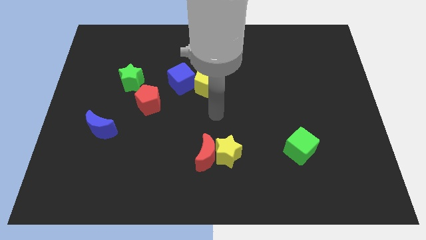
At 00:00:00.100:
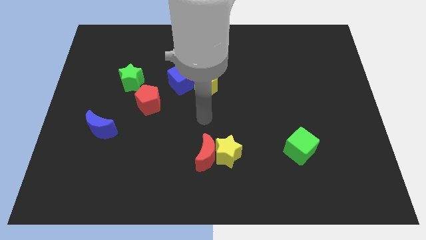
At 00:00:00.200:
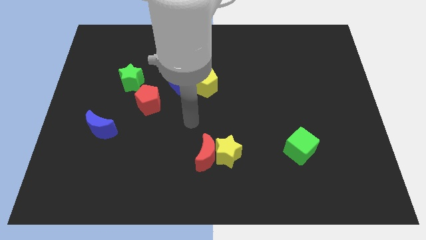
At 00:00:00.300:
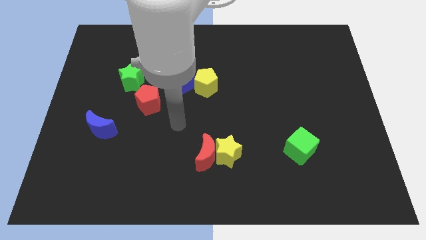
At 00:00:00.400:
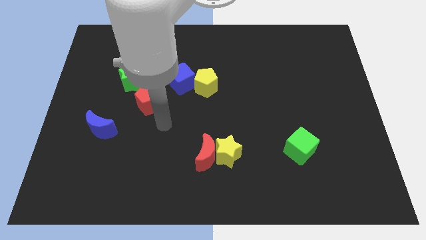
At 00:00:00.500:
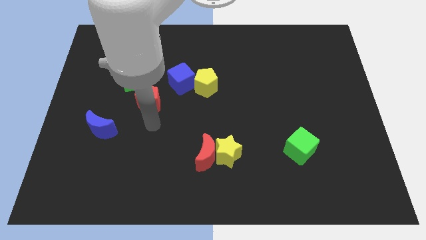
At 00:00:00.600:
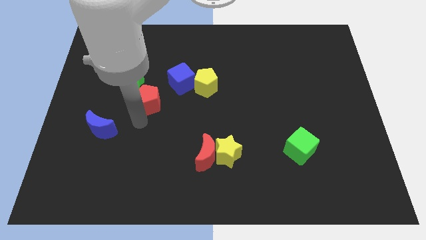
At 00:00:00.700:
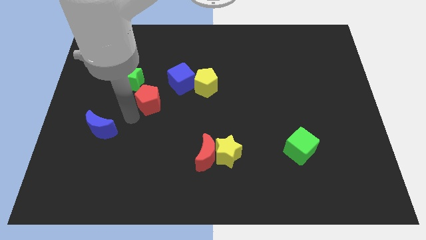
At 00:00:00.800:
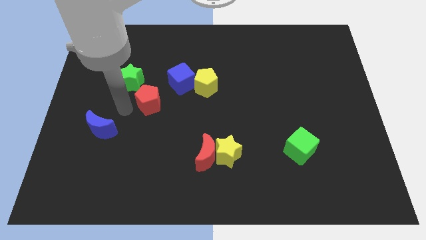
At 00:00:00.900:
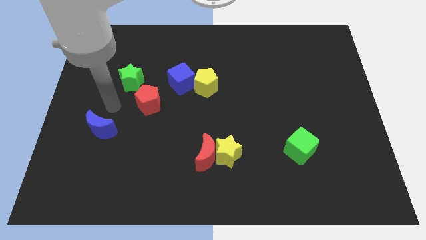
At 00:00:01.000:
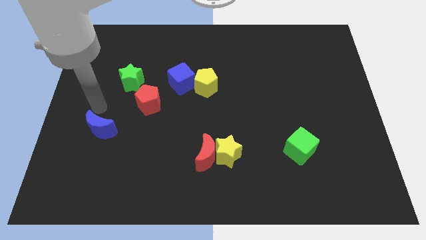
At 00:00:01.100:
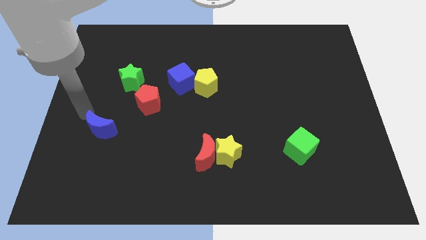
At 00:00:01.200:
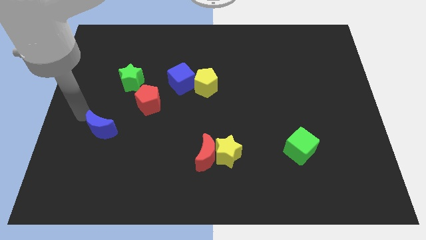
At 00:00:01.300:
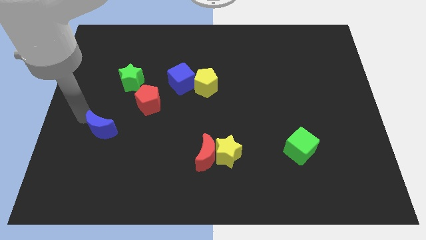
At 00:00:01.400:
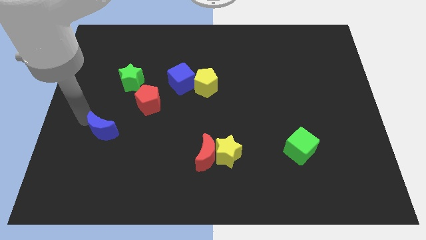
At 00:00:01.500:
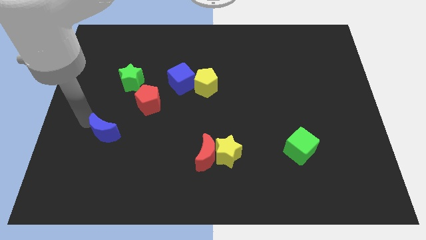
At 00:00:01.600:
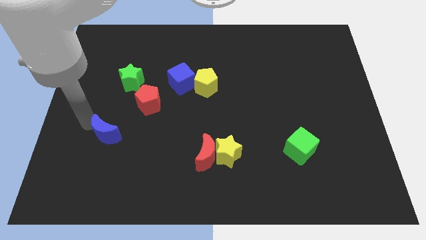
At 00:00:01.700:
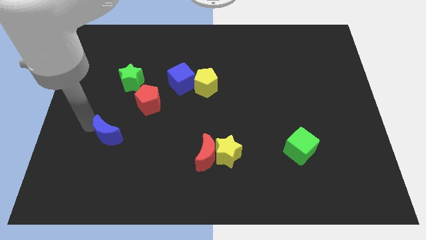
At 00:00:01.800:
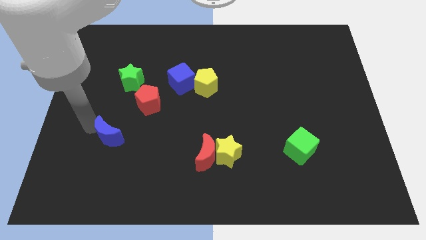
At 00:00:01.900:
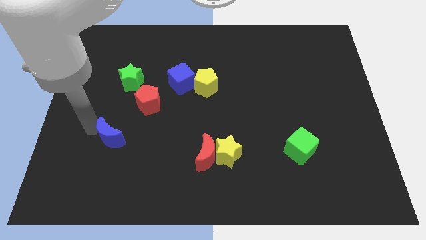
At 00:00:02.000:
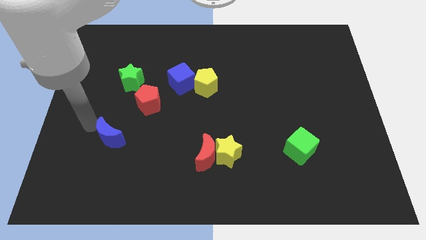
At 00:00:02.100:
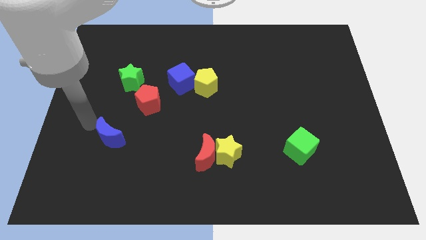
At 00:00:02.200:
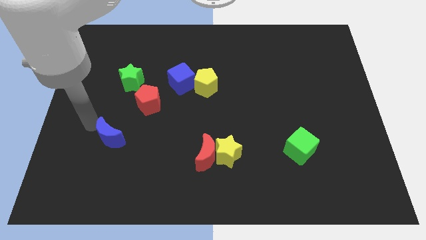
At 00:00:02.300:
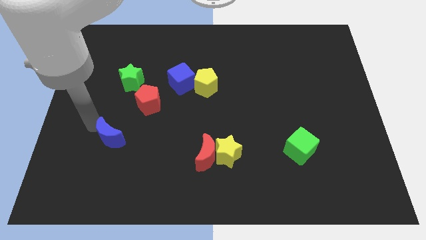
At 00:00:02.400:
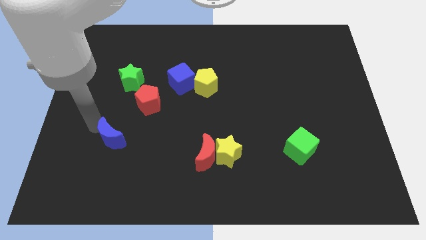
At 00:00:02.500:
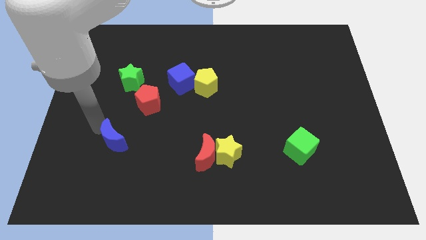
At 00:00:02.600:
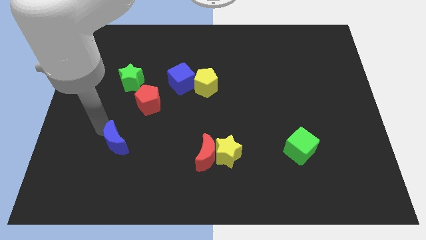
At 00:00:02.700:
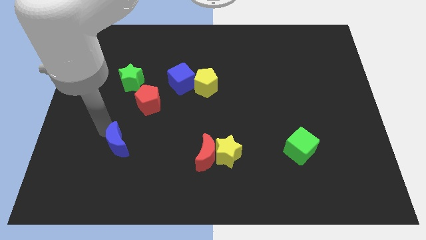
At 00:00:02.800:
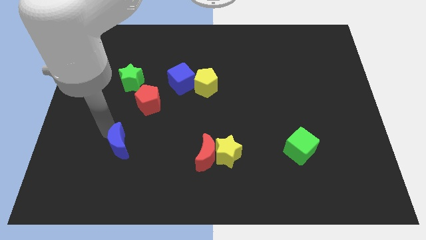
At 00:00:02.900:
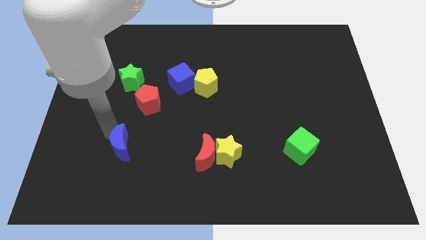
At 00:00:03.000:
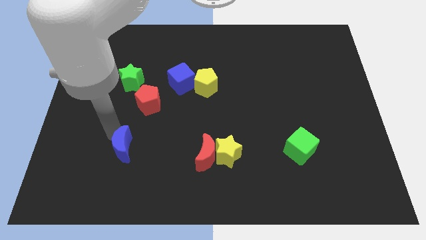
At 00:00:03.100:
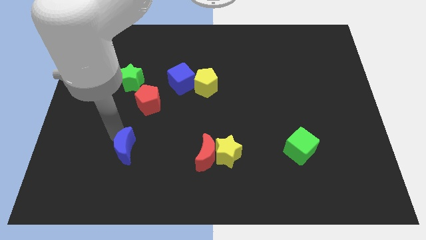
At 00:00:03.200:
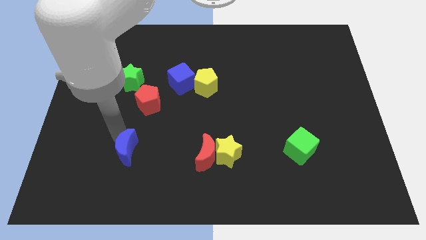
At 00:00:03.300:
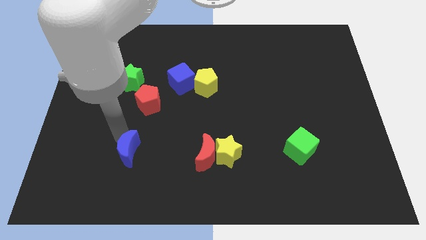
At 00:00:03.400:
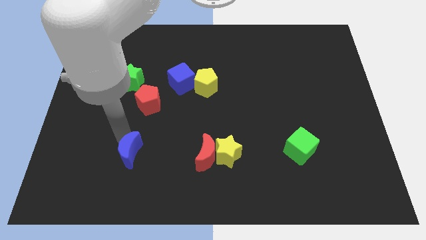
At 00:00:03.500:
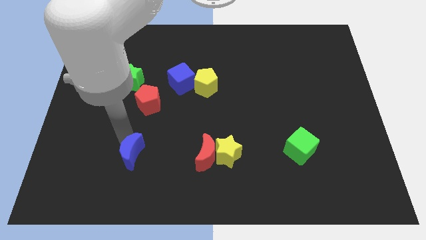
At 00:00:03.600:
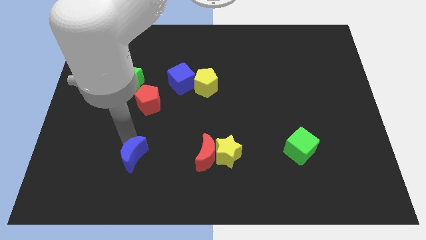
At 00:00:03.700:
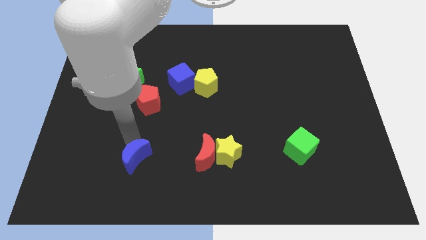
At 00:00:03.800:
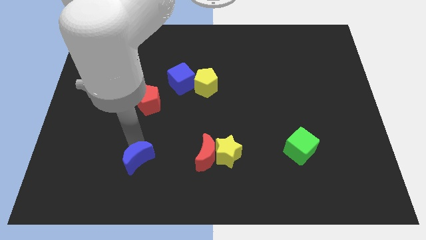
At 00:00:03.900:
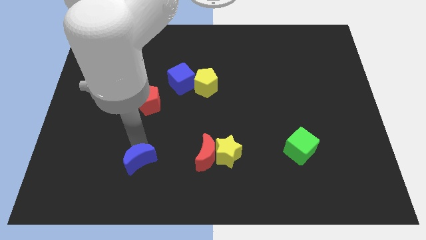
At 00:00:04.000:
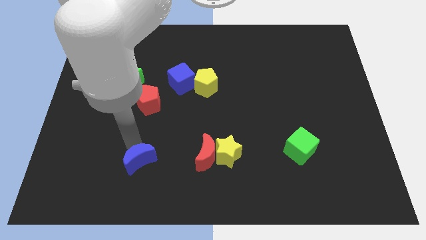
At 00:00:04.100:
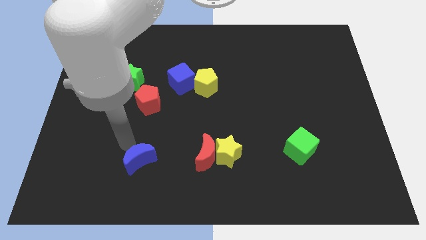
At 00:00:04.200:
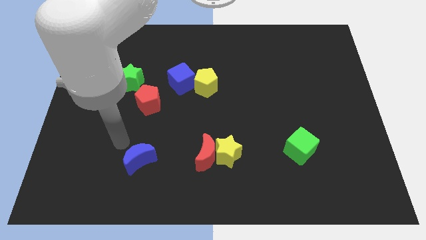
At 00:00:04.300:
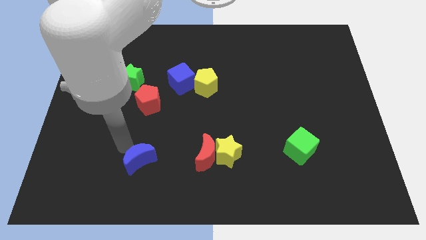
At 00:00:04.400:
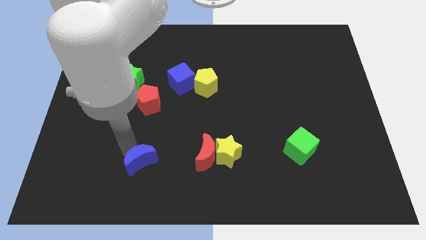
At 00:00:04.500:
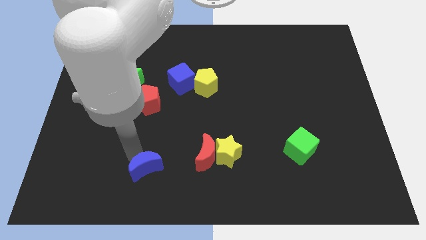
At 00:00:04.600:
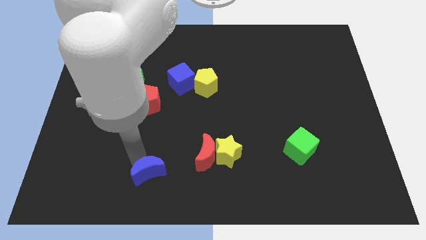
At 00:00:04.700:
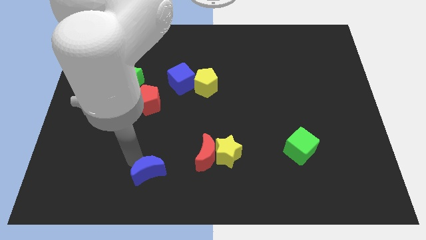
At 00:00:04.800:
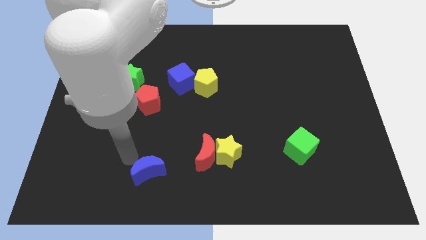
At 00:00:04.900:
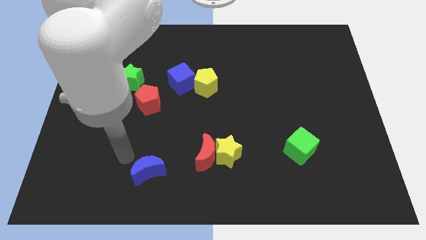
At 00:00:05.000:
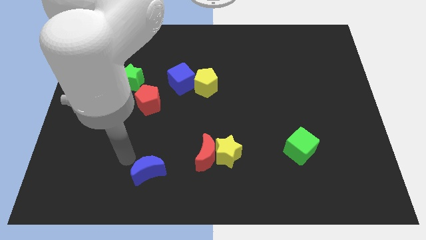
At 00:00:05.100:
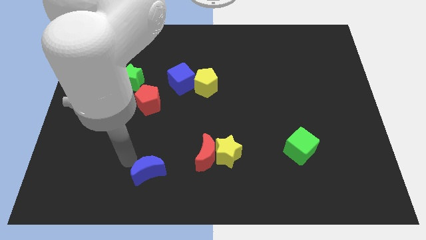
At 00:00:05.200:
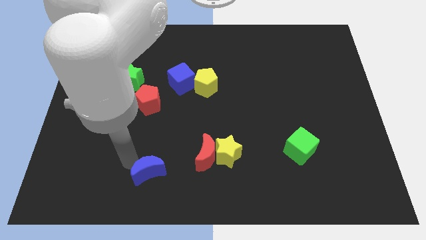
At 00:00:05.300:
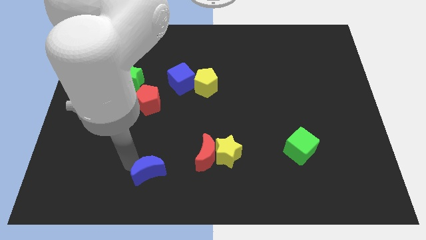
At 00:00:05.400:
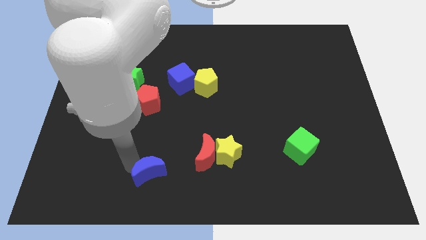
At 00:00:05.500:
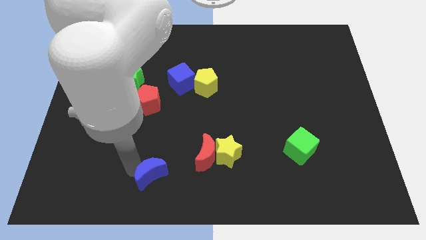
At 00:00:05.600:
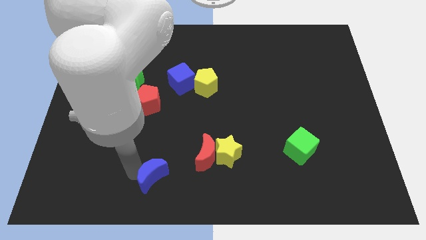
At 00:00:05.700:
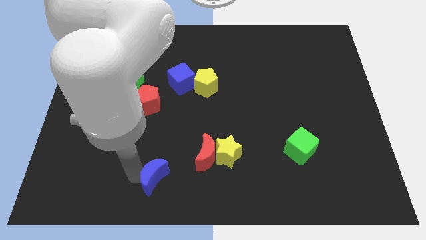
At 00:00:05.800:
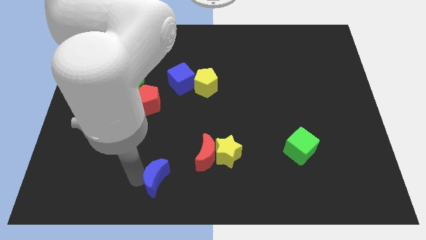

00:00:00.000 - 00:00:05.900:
put the blue moon to the bottom

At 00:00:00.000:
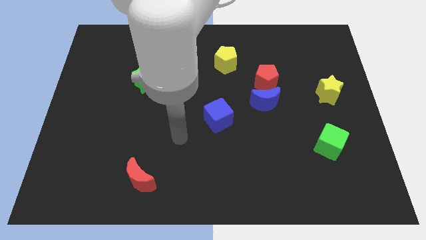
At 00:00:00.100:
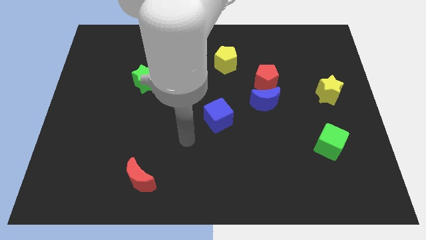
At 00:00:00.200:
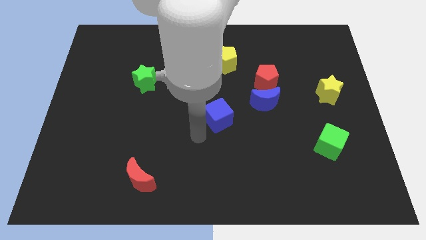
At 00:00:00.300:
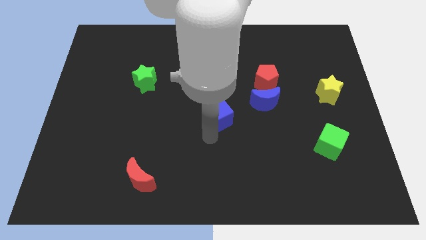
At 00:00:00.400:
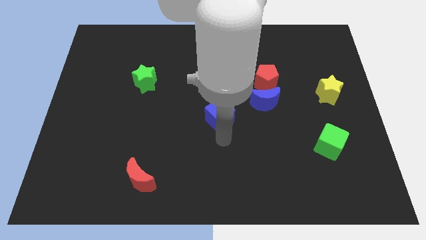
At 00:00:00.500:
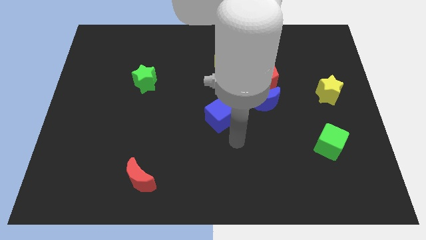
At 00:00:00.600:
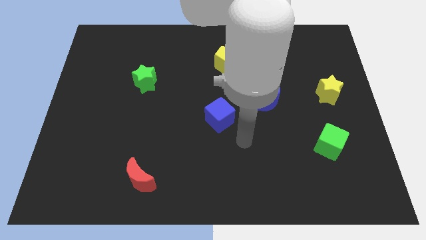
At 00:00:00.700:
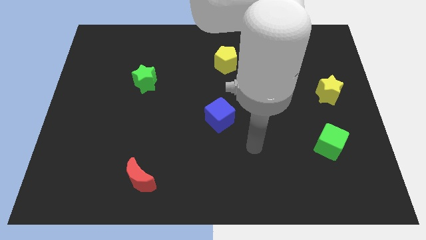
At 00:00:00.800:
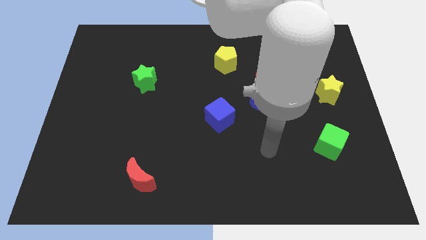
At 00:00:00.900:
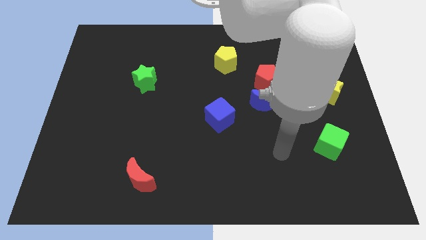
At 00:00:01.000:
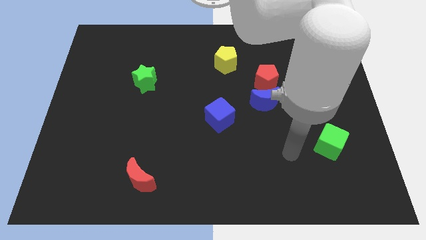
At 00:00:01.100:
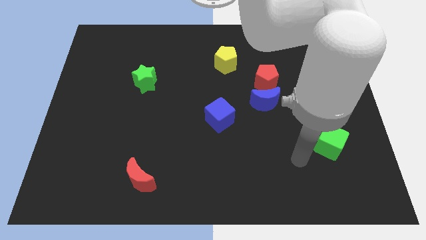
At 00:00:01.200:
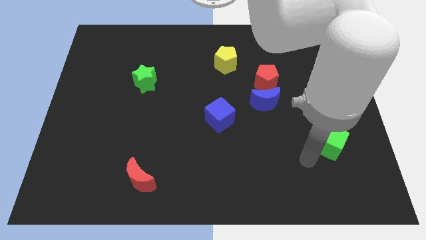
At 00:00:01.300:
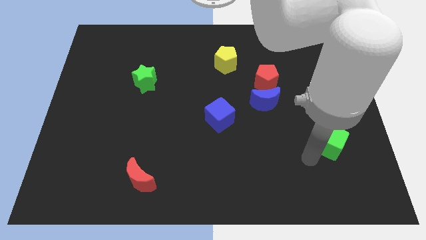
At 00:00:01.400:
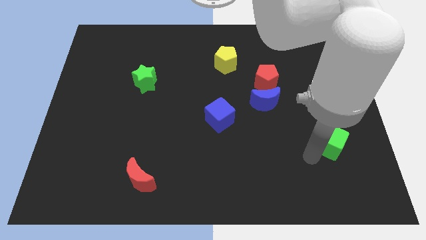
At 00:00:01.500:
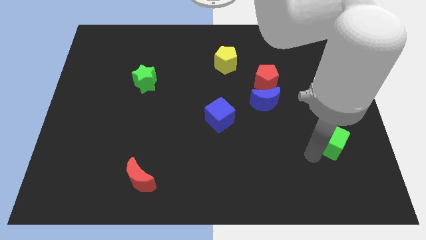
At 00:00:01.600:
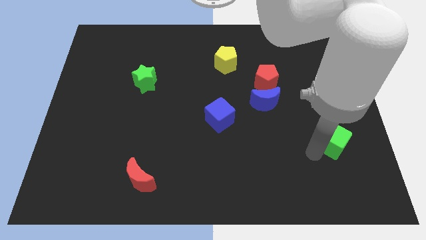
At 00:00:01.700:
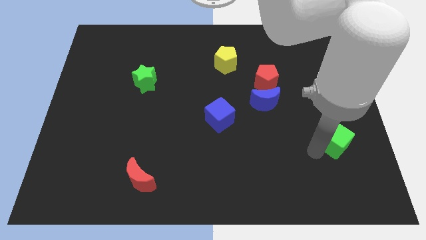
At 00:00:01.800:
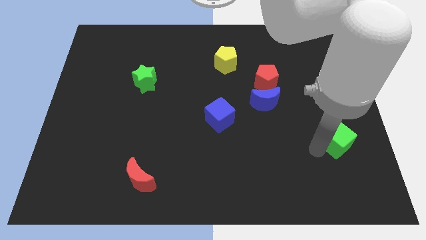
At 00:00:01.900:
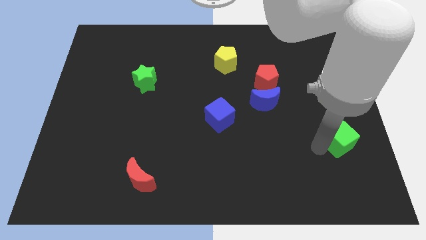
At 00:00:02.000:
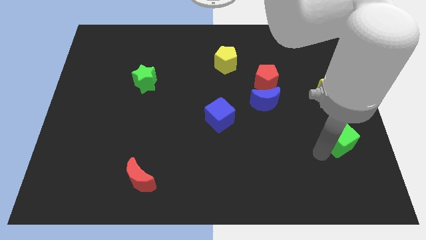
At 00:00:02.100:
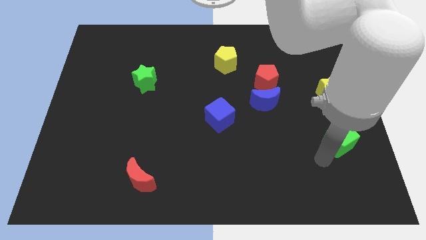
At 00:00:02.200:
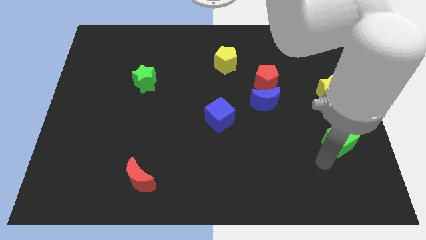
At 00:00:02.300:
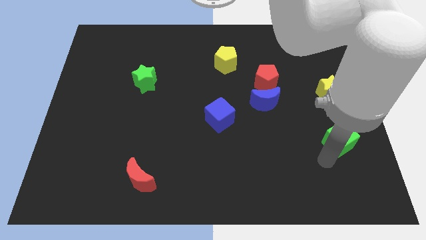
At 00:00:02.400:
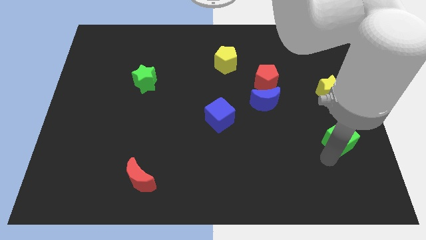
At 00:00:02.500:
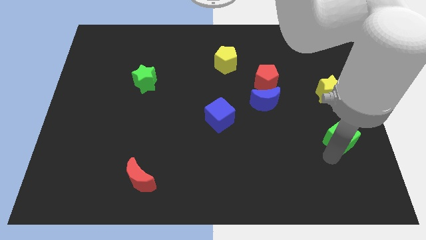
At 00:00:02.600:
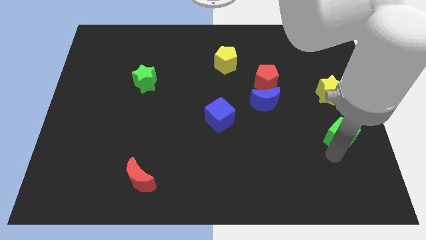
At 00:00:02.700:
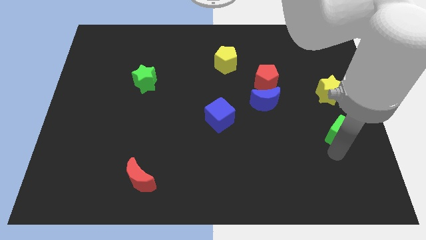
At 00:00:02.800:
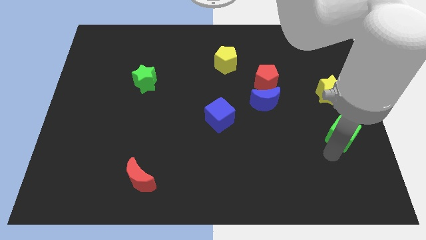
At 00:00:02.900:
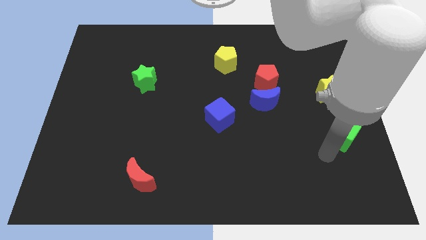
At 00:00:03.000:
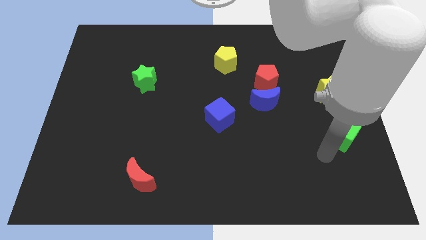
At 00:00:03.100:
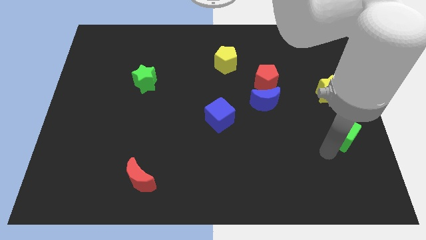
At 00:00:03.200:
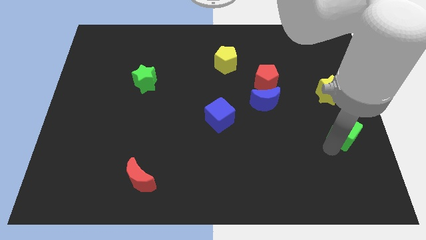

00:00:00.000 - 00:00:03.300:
put the green cube to the center right
